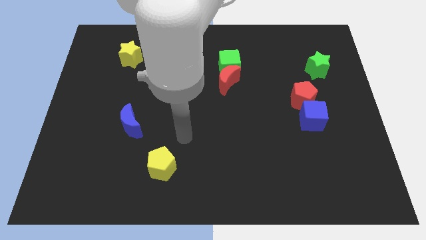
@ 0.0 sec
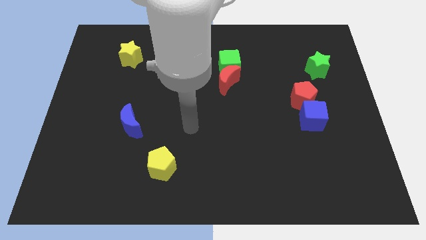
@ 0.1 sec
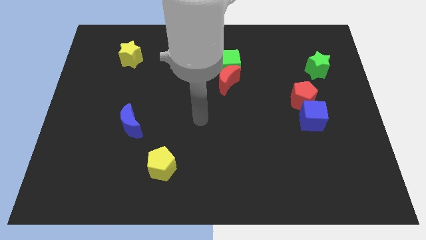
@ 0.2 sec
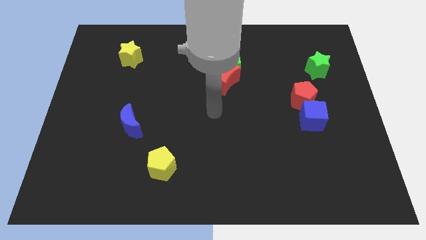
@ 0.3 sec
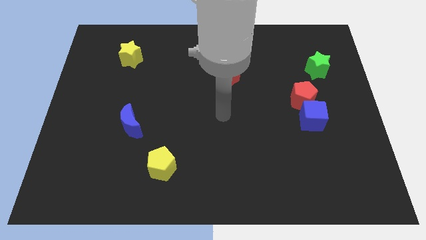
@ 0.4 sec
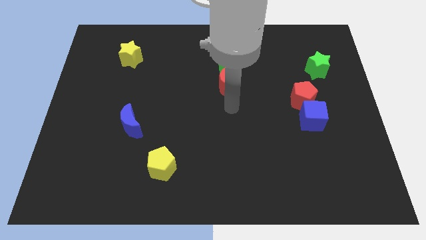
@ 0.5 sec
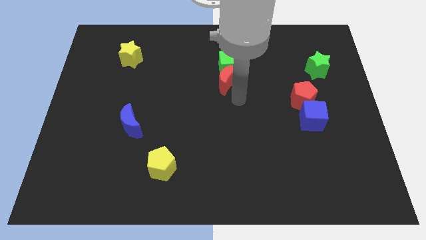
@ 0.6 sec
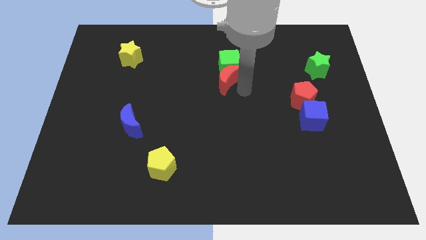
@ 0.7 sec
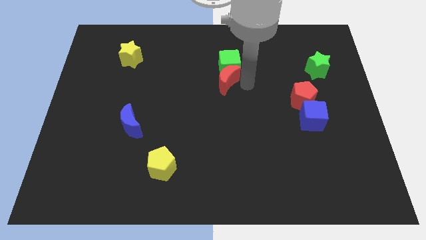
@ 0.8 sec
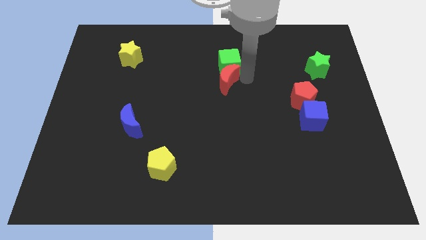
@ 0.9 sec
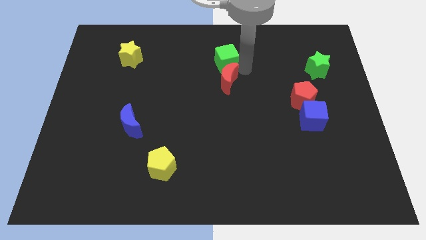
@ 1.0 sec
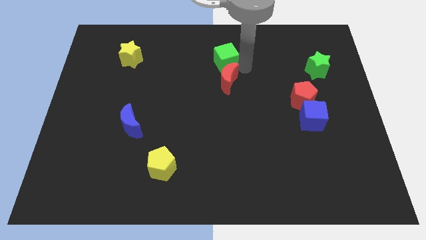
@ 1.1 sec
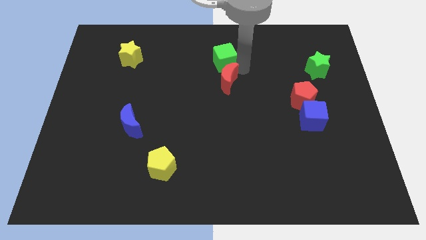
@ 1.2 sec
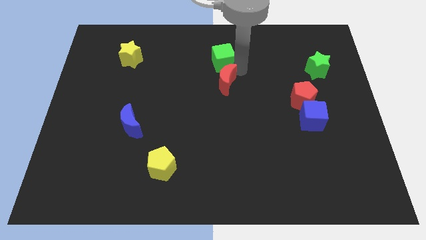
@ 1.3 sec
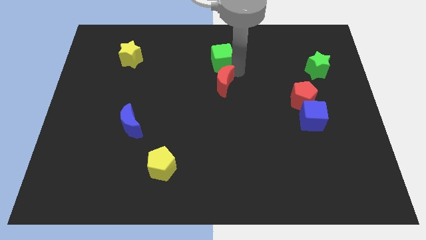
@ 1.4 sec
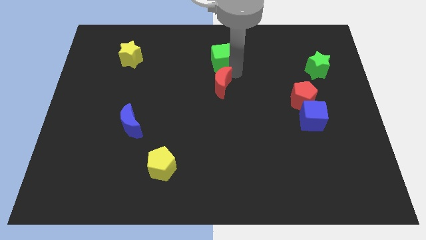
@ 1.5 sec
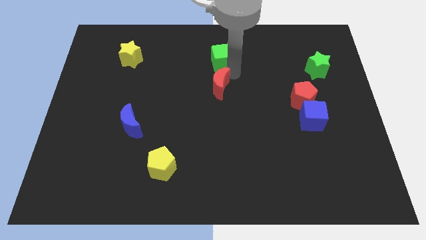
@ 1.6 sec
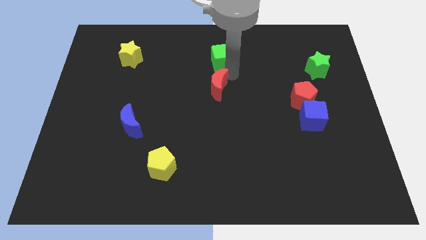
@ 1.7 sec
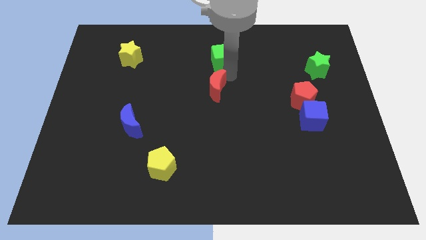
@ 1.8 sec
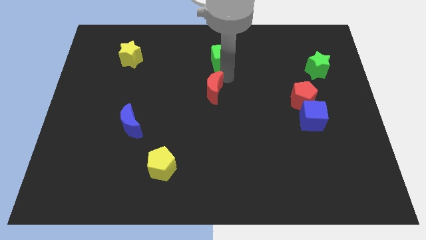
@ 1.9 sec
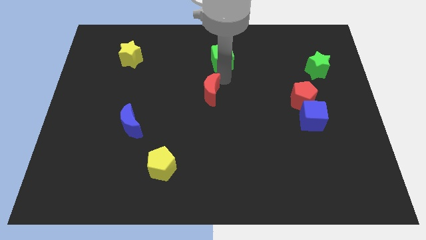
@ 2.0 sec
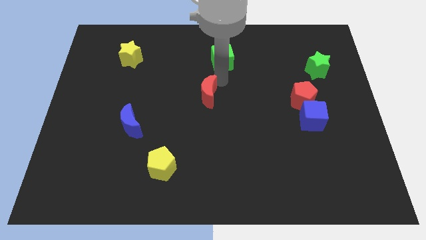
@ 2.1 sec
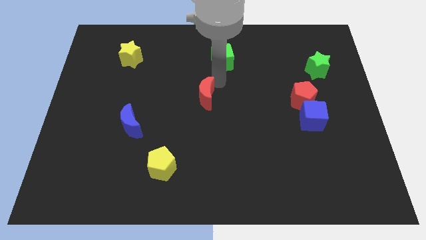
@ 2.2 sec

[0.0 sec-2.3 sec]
slightly push the red moon down and then left

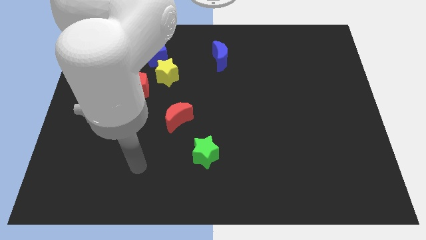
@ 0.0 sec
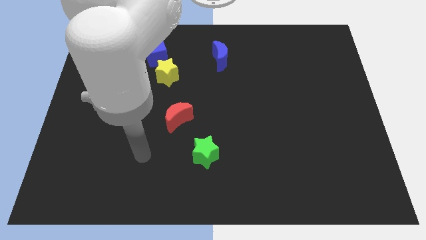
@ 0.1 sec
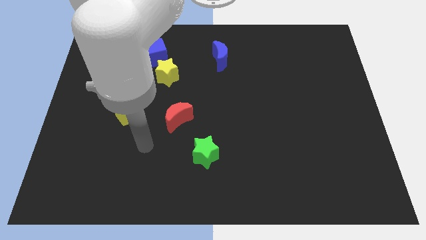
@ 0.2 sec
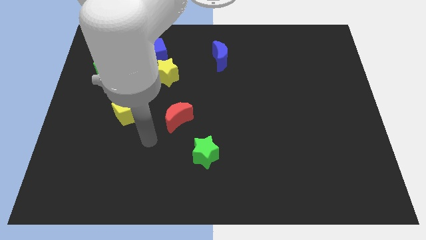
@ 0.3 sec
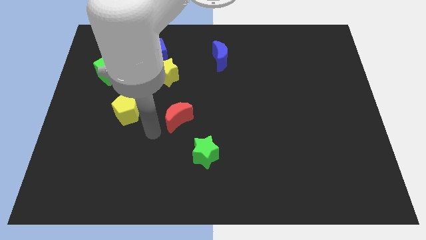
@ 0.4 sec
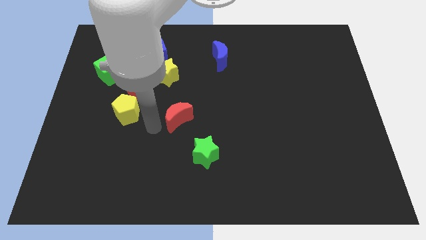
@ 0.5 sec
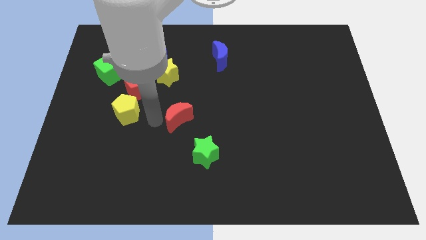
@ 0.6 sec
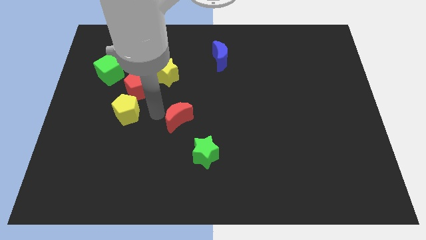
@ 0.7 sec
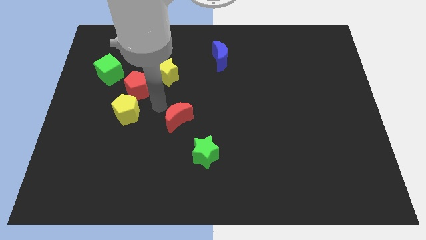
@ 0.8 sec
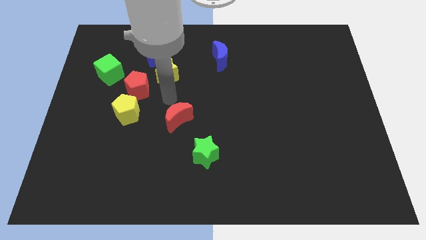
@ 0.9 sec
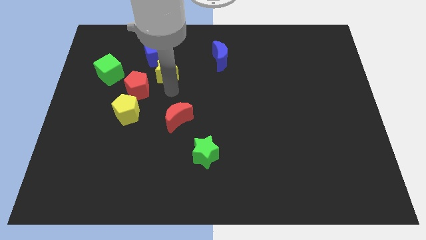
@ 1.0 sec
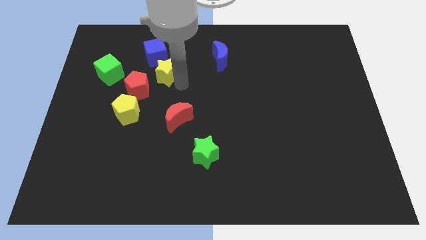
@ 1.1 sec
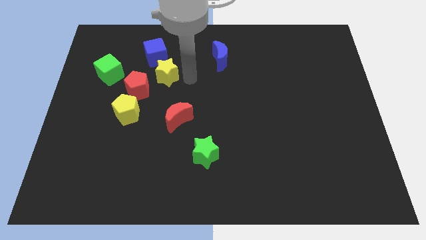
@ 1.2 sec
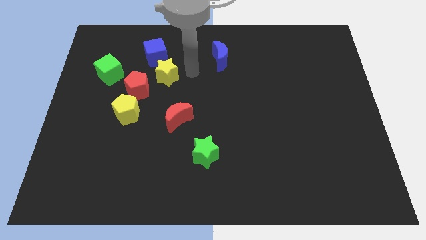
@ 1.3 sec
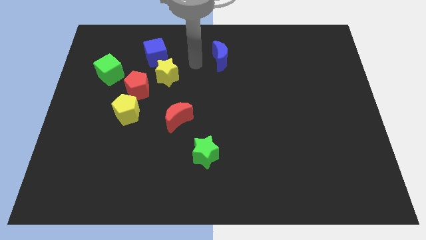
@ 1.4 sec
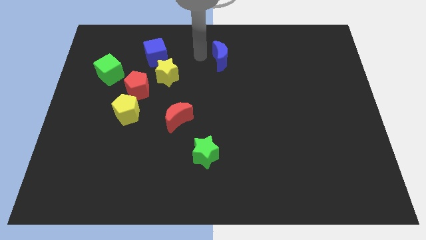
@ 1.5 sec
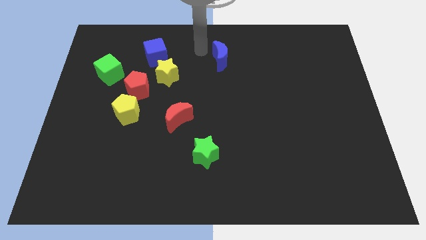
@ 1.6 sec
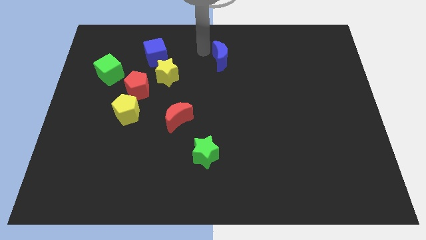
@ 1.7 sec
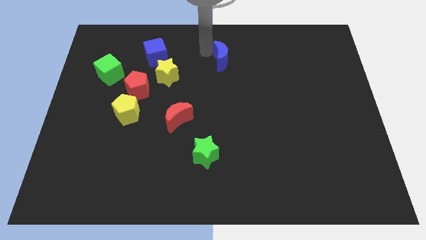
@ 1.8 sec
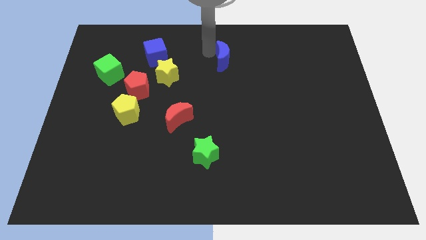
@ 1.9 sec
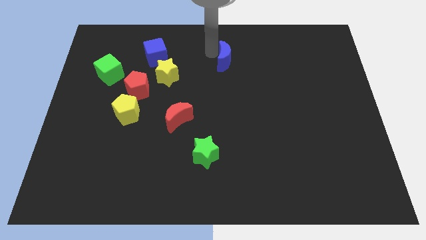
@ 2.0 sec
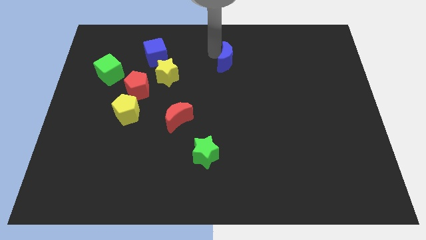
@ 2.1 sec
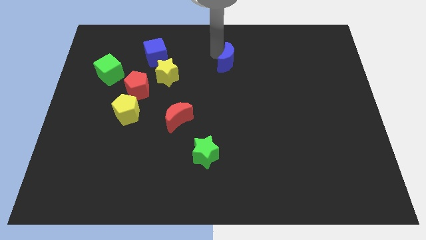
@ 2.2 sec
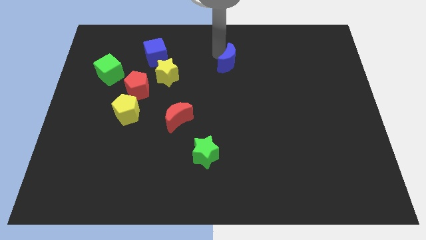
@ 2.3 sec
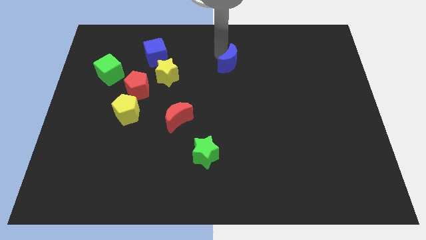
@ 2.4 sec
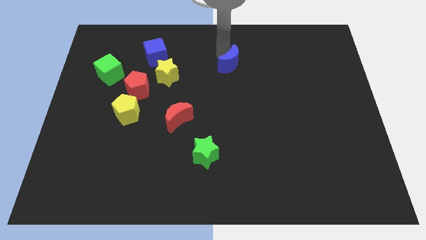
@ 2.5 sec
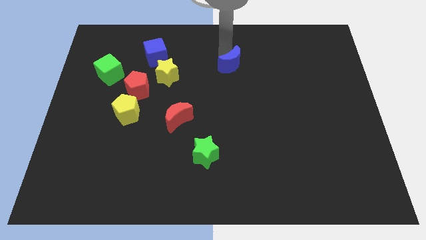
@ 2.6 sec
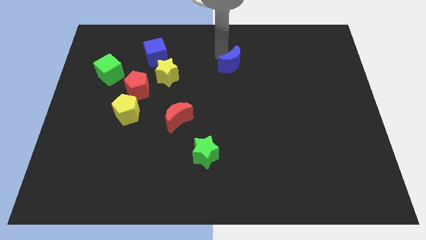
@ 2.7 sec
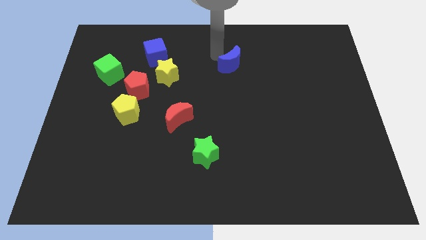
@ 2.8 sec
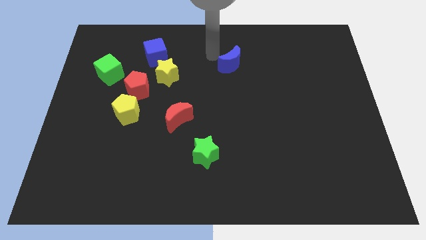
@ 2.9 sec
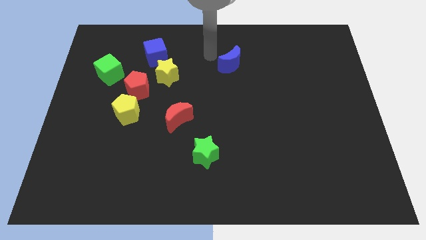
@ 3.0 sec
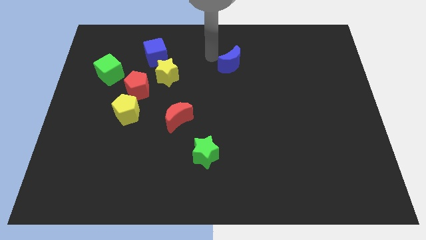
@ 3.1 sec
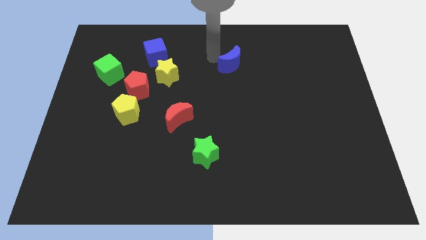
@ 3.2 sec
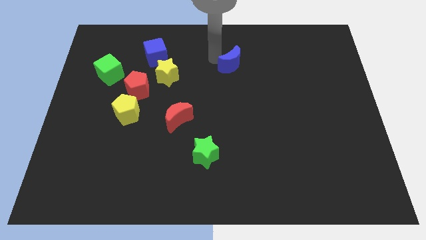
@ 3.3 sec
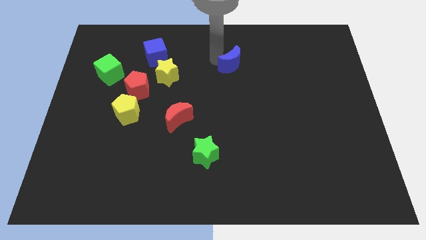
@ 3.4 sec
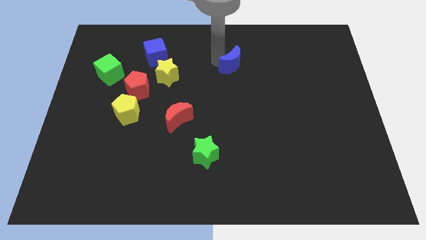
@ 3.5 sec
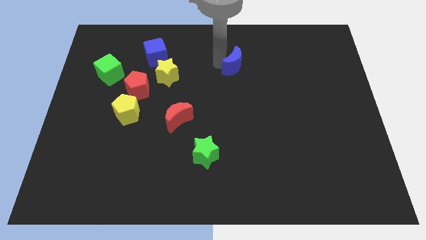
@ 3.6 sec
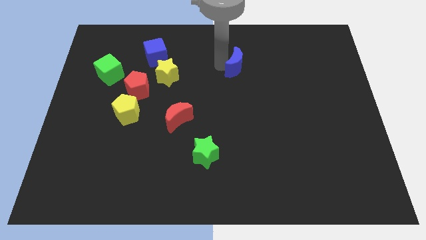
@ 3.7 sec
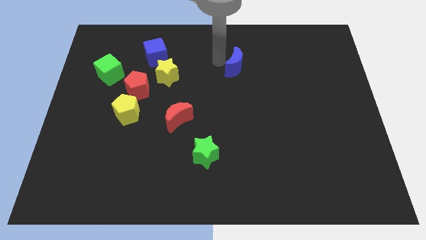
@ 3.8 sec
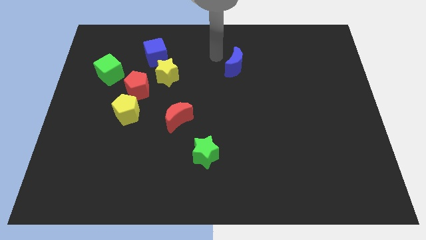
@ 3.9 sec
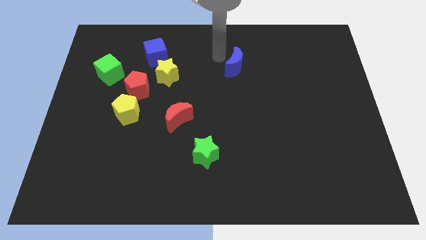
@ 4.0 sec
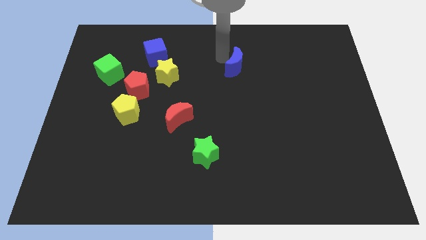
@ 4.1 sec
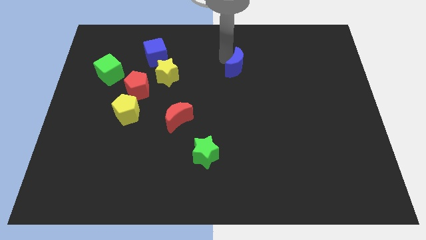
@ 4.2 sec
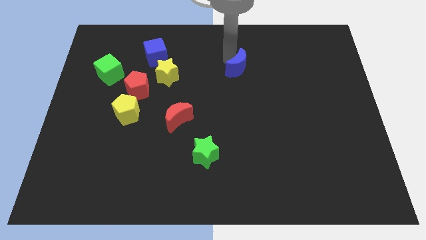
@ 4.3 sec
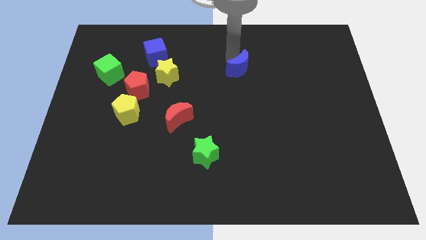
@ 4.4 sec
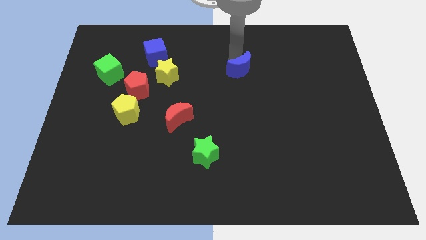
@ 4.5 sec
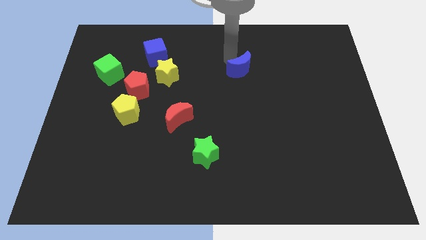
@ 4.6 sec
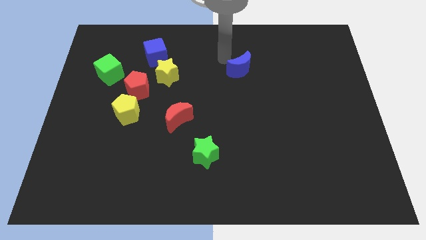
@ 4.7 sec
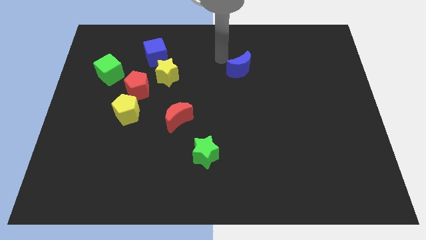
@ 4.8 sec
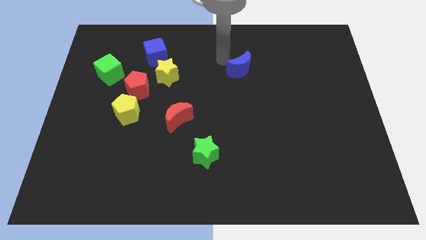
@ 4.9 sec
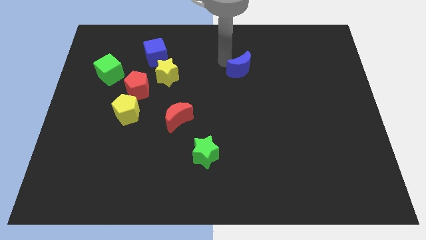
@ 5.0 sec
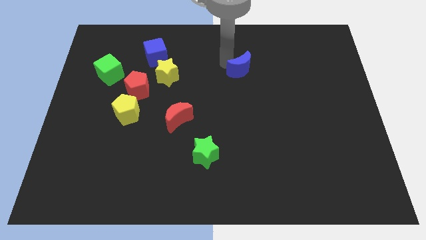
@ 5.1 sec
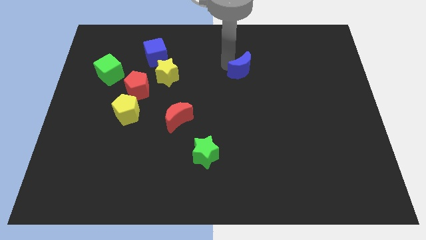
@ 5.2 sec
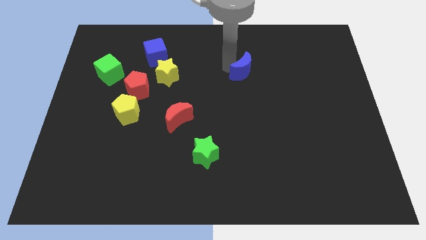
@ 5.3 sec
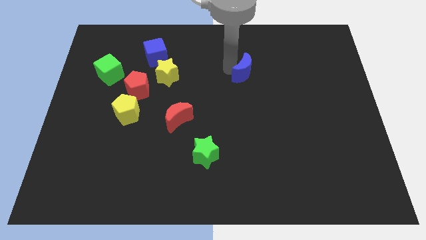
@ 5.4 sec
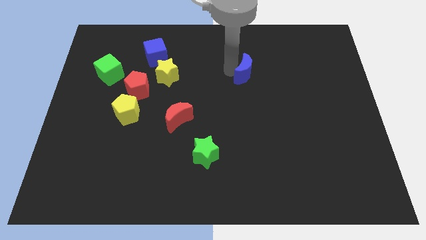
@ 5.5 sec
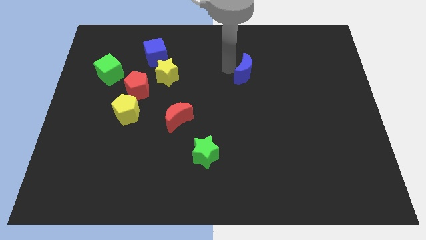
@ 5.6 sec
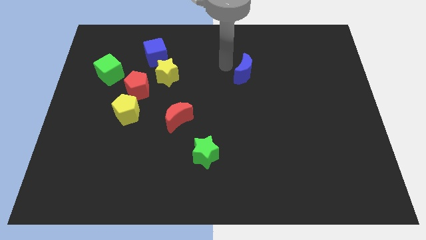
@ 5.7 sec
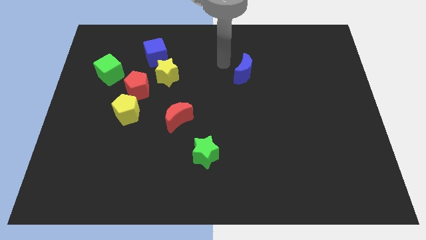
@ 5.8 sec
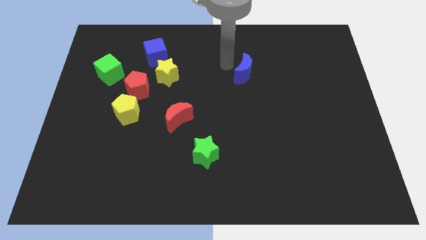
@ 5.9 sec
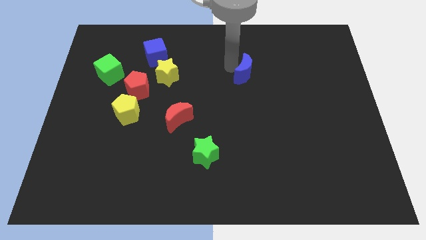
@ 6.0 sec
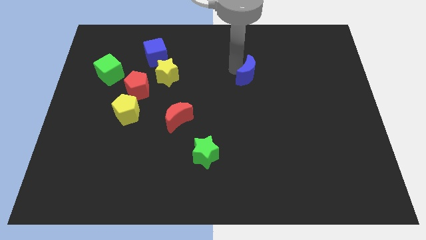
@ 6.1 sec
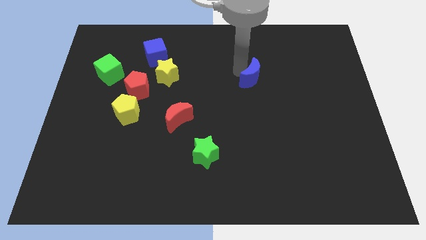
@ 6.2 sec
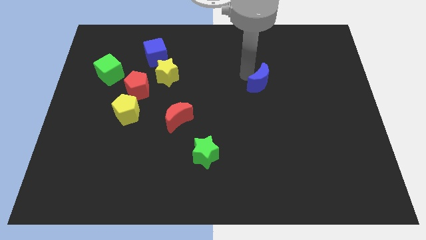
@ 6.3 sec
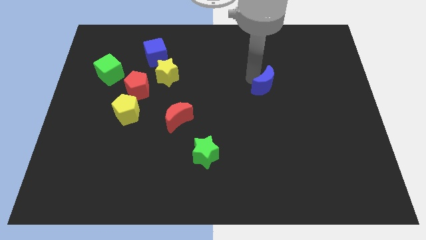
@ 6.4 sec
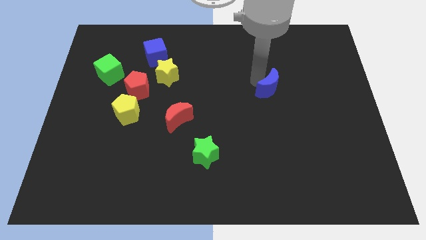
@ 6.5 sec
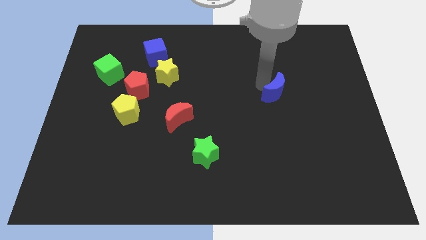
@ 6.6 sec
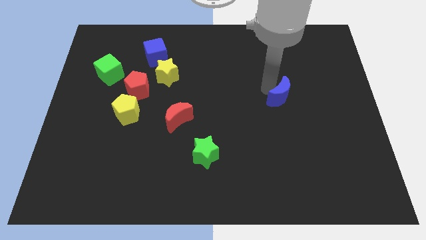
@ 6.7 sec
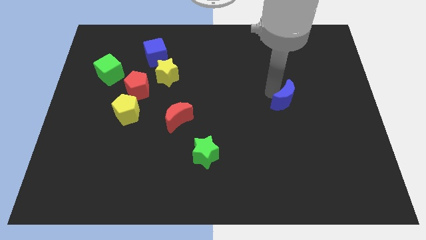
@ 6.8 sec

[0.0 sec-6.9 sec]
push the blue moon down and right
